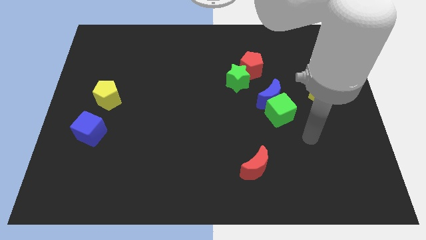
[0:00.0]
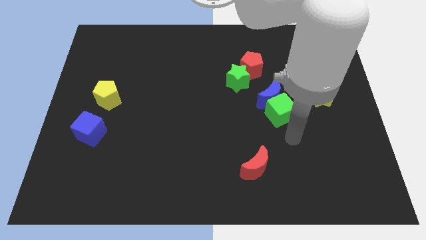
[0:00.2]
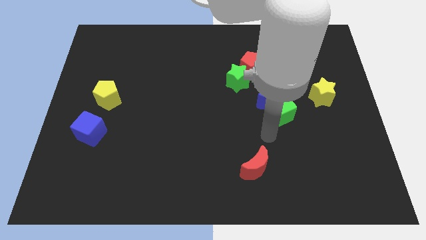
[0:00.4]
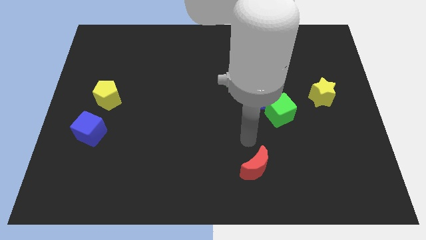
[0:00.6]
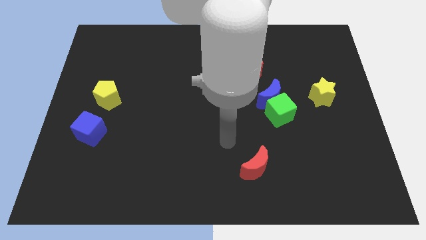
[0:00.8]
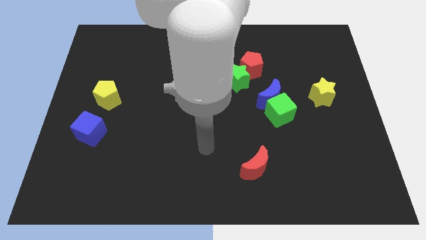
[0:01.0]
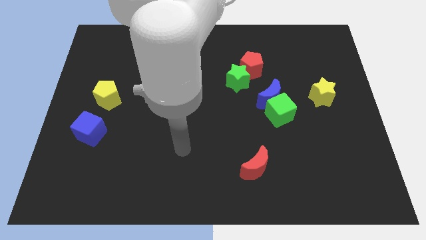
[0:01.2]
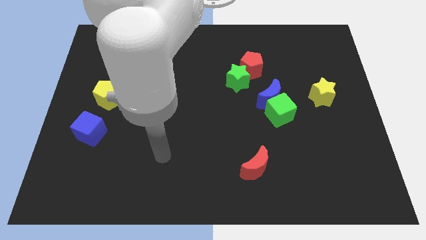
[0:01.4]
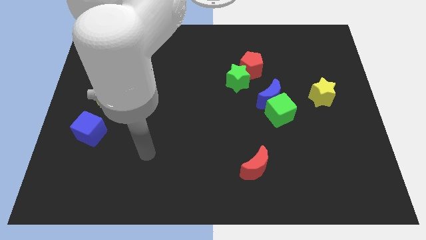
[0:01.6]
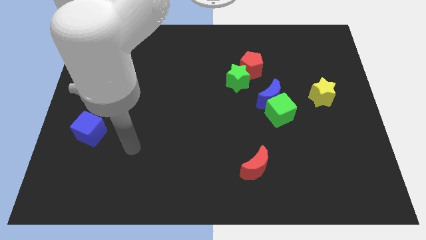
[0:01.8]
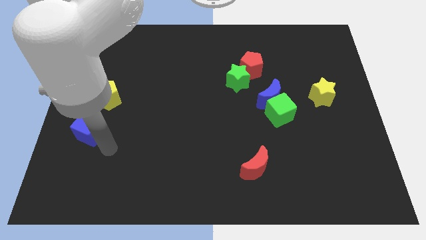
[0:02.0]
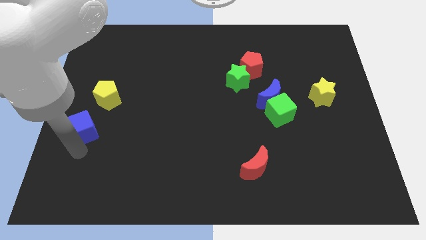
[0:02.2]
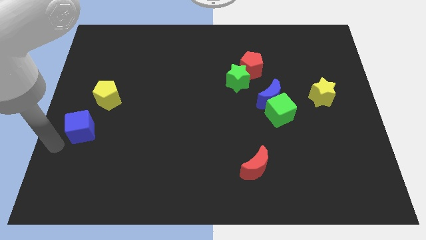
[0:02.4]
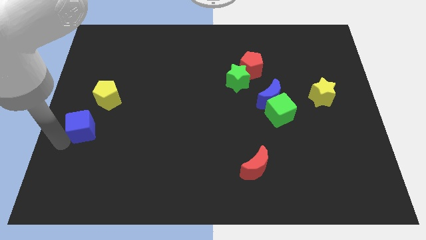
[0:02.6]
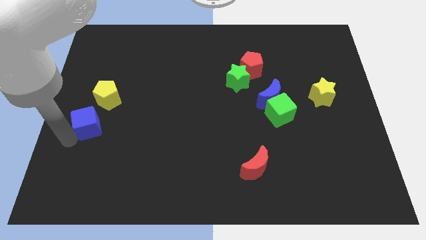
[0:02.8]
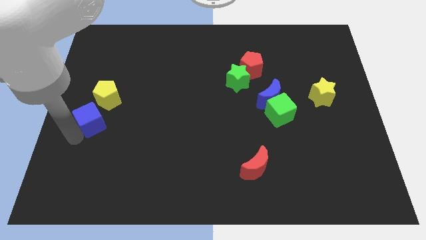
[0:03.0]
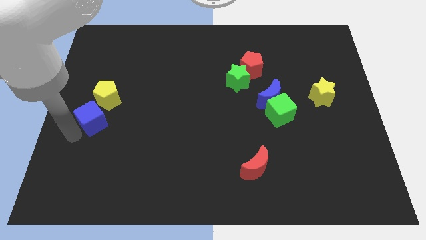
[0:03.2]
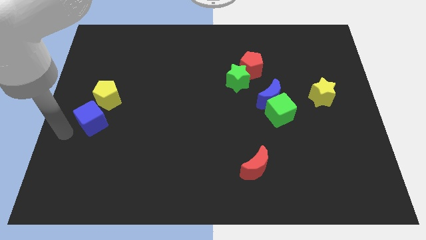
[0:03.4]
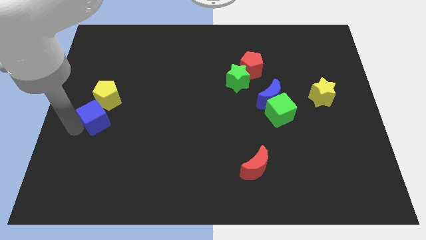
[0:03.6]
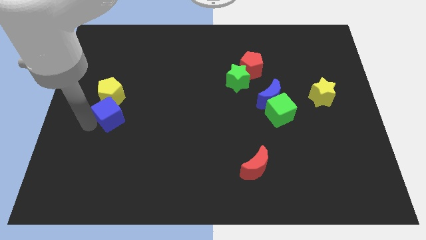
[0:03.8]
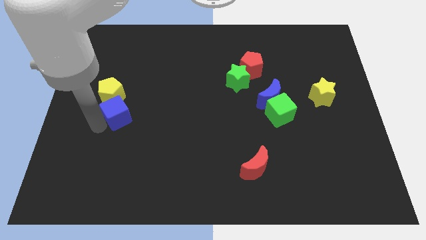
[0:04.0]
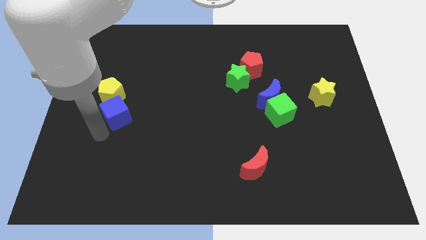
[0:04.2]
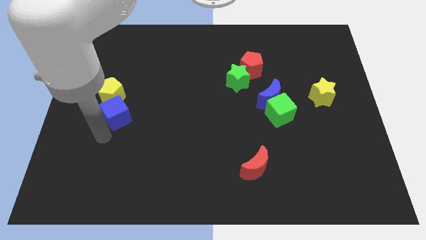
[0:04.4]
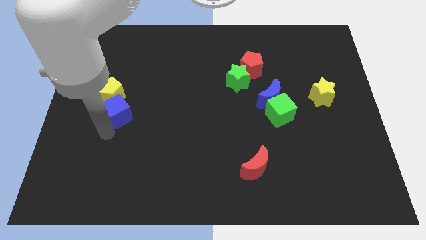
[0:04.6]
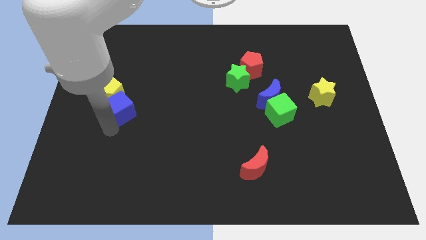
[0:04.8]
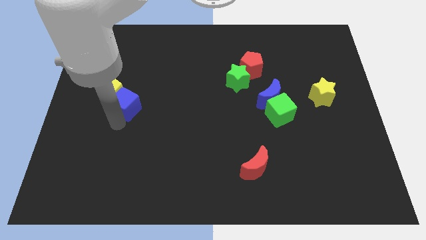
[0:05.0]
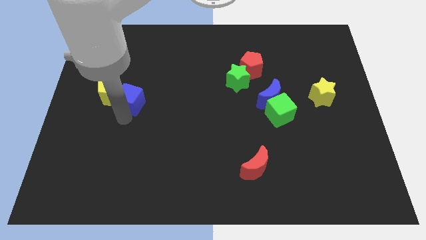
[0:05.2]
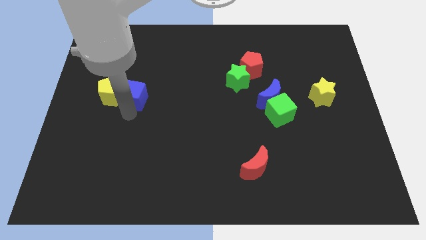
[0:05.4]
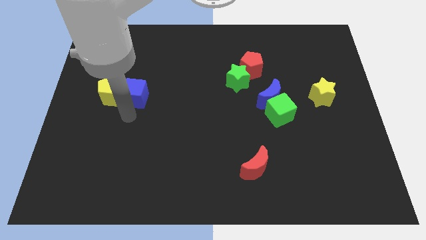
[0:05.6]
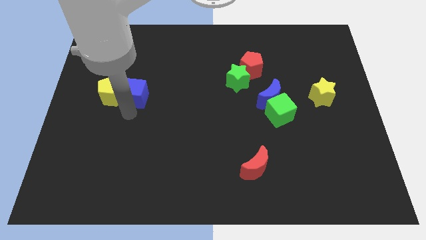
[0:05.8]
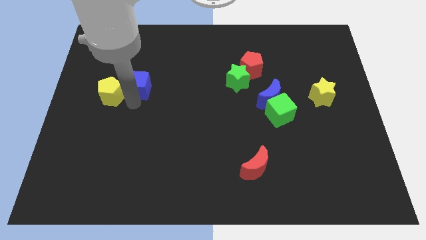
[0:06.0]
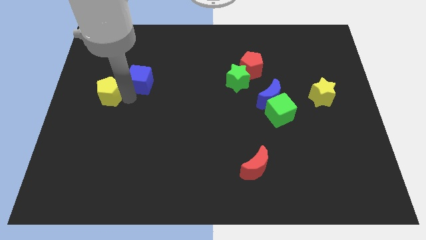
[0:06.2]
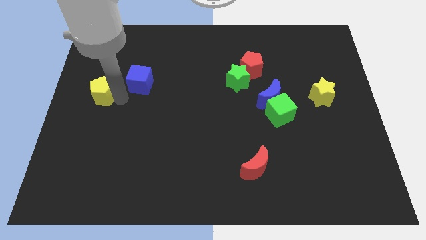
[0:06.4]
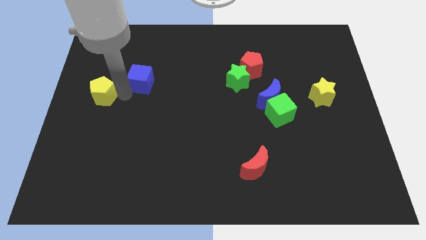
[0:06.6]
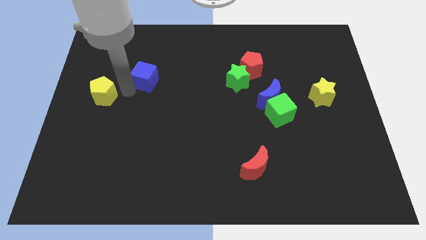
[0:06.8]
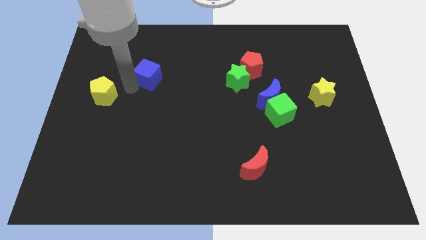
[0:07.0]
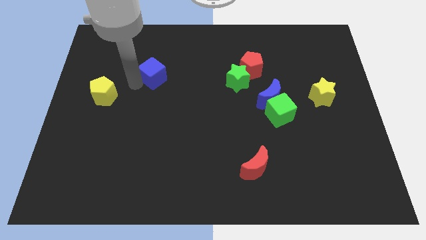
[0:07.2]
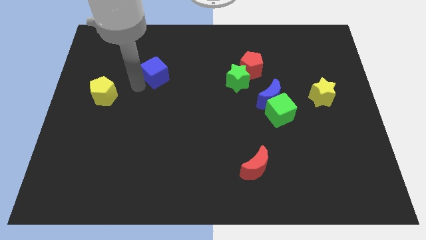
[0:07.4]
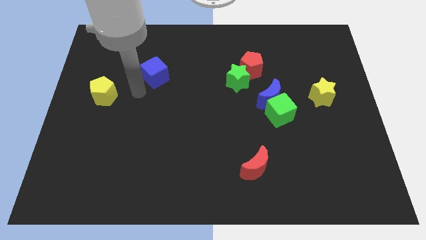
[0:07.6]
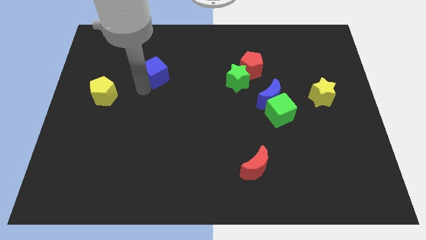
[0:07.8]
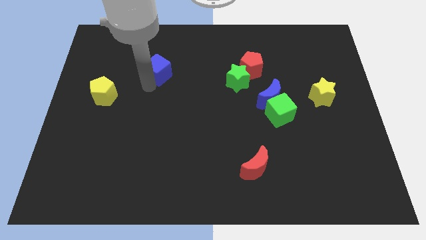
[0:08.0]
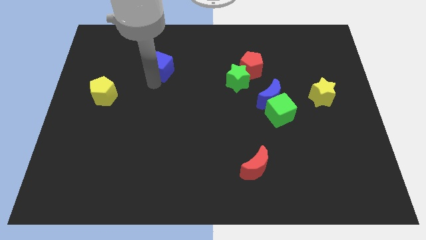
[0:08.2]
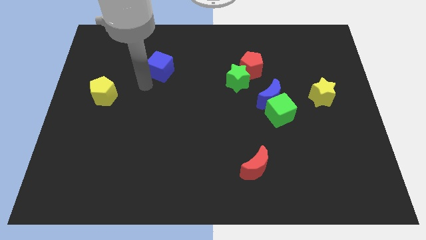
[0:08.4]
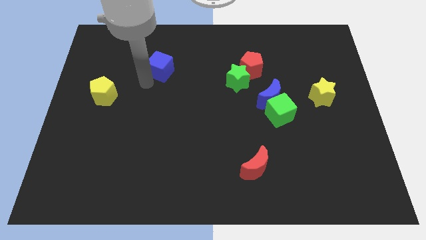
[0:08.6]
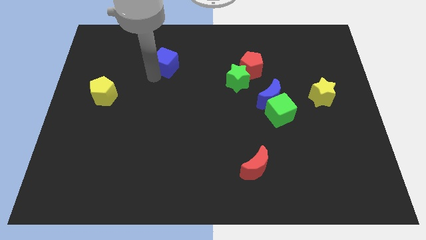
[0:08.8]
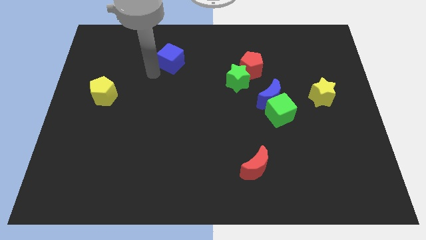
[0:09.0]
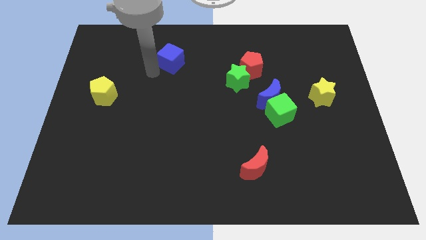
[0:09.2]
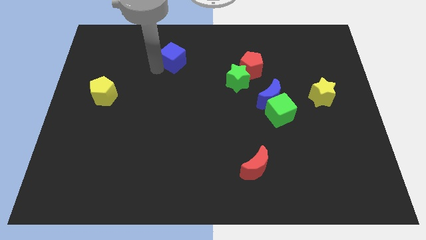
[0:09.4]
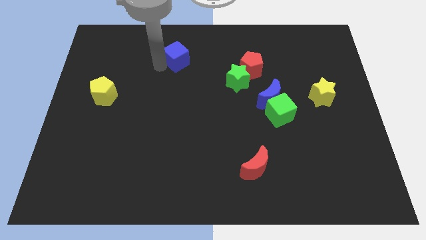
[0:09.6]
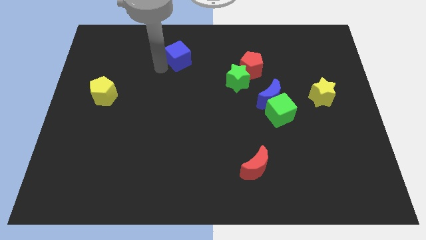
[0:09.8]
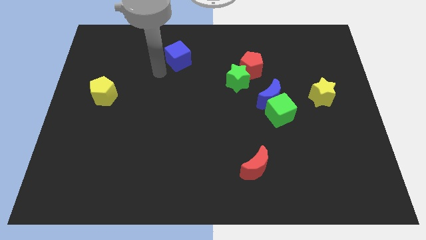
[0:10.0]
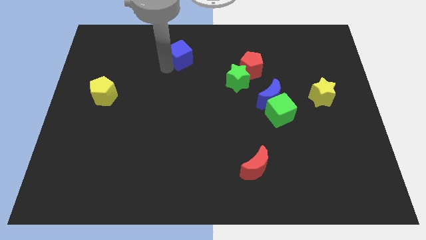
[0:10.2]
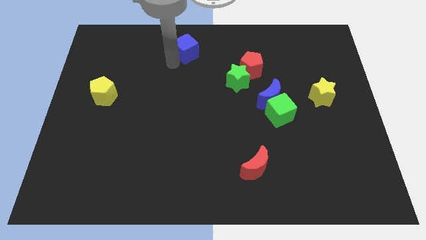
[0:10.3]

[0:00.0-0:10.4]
push the blue cube to the top side

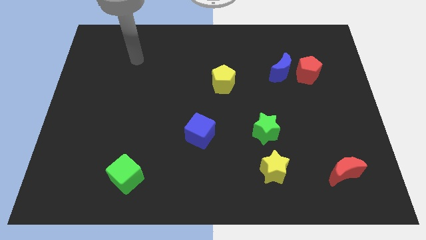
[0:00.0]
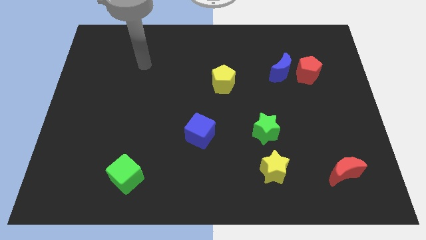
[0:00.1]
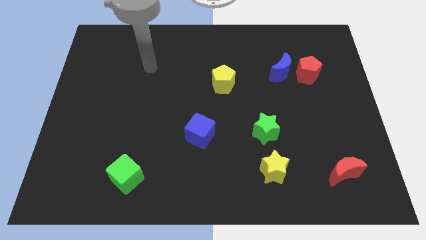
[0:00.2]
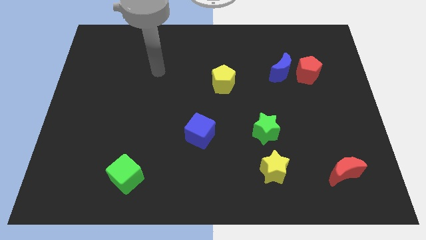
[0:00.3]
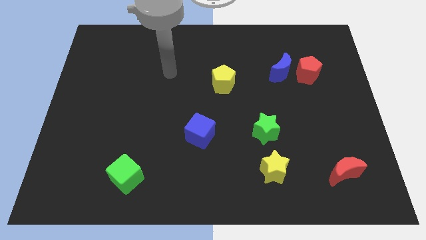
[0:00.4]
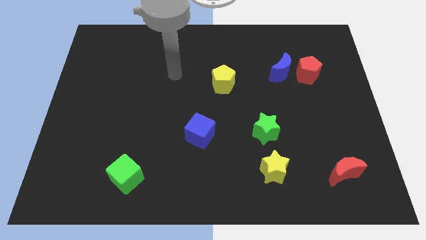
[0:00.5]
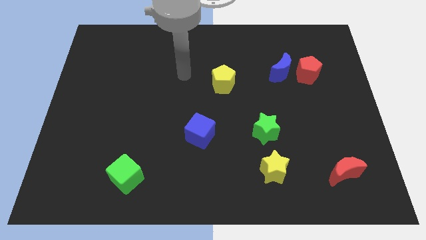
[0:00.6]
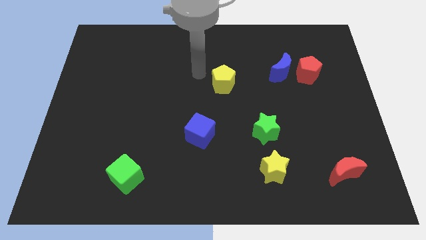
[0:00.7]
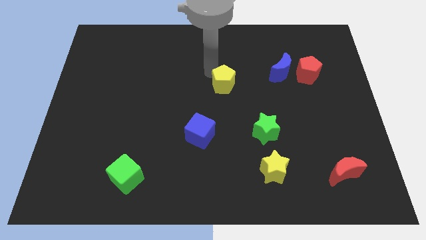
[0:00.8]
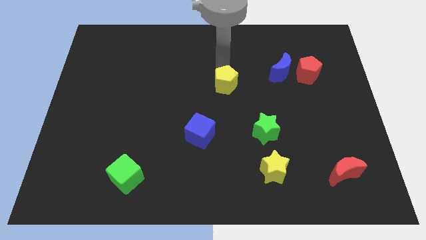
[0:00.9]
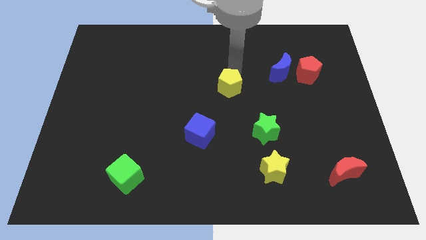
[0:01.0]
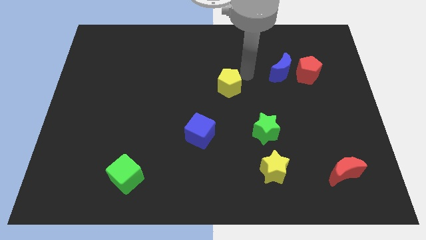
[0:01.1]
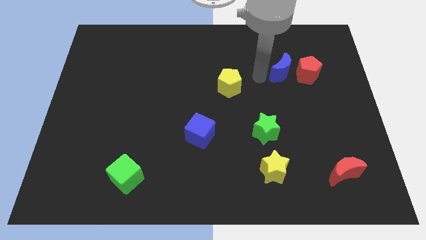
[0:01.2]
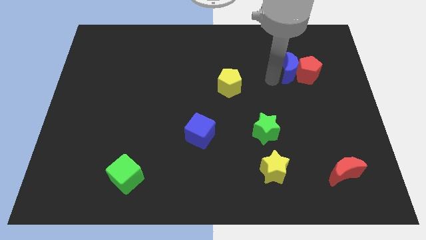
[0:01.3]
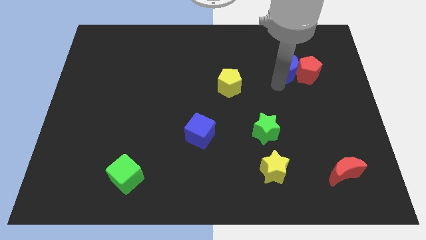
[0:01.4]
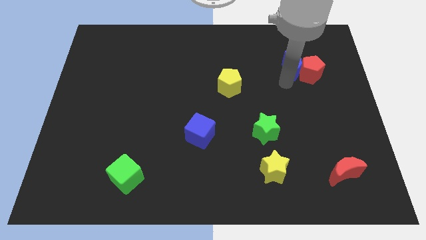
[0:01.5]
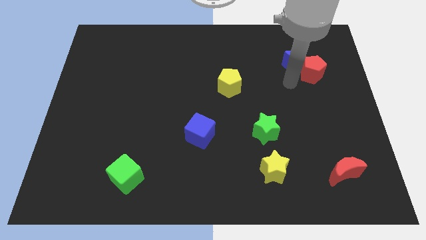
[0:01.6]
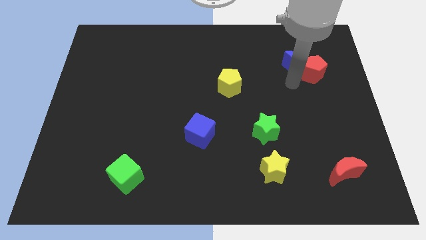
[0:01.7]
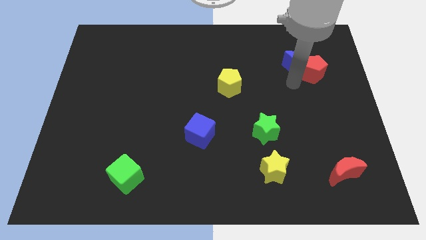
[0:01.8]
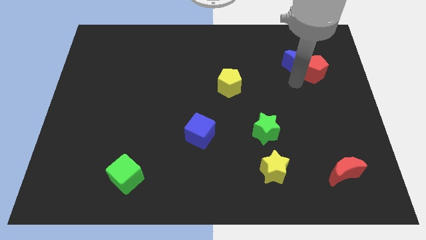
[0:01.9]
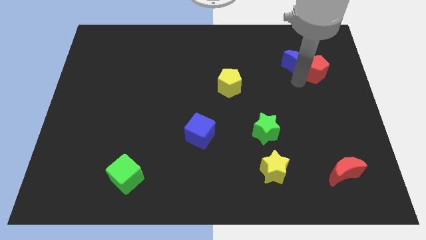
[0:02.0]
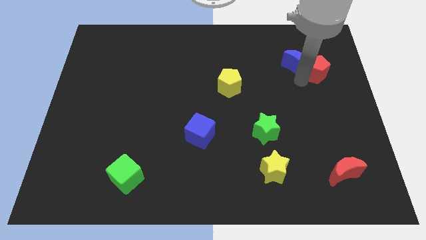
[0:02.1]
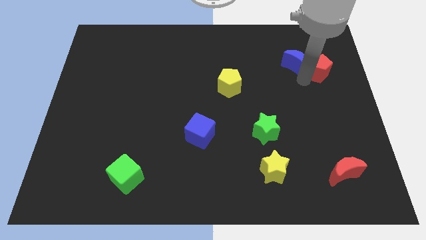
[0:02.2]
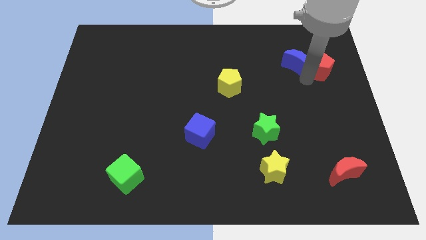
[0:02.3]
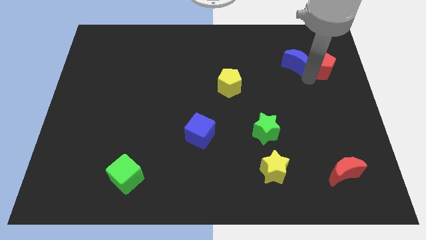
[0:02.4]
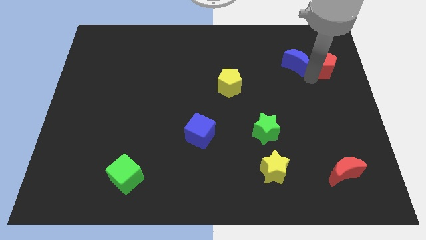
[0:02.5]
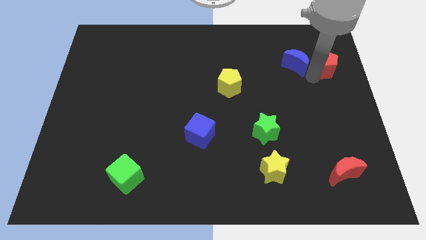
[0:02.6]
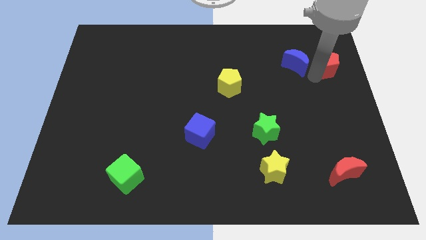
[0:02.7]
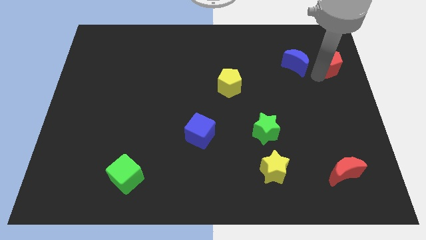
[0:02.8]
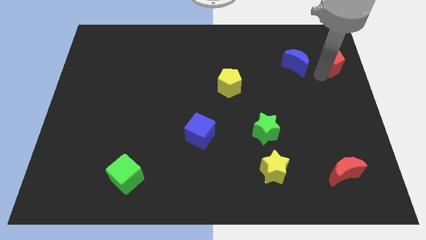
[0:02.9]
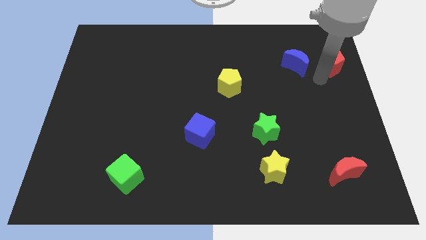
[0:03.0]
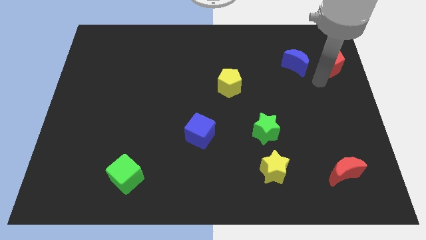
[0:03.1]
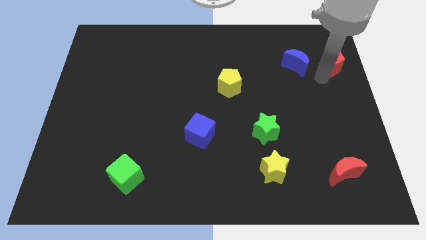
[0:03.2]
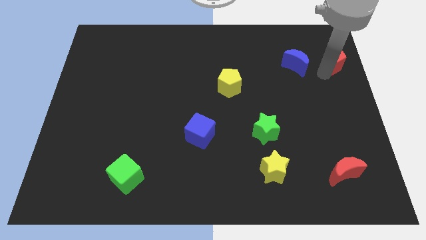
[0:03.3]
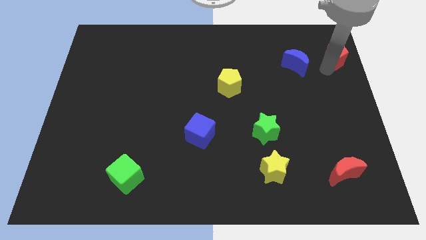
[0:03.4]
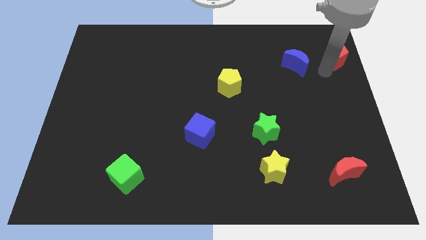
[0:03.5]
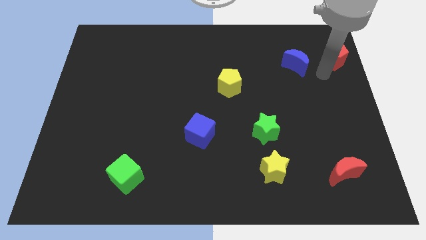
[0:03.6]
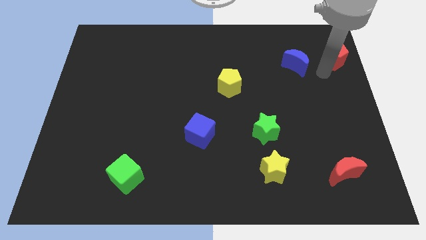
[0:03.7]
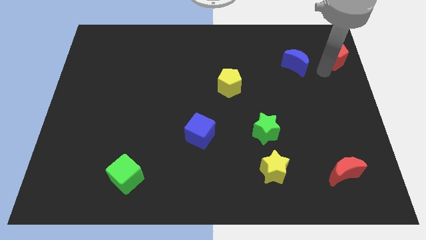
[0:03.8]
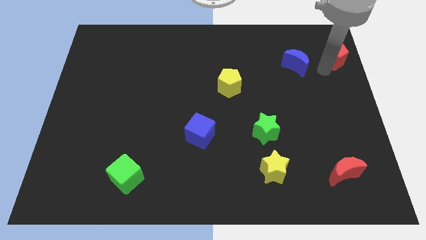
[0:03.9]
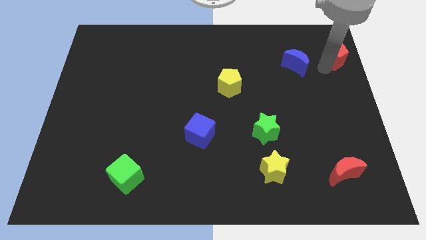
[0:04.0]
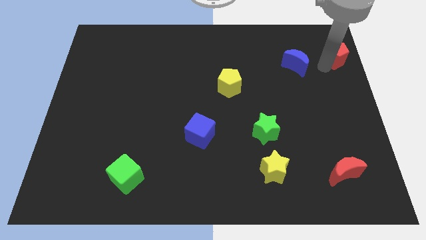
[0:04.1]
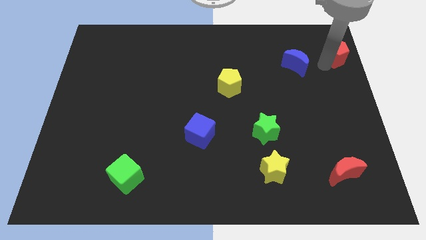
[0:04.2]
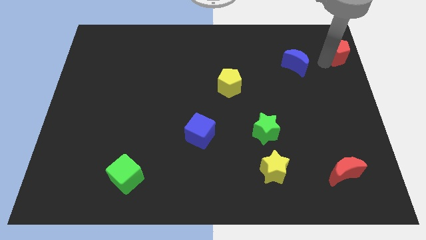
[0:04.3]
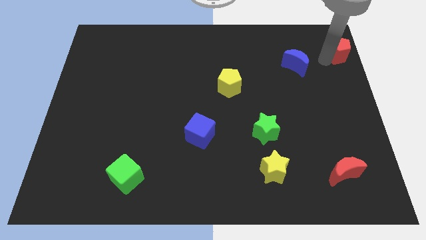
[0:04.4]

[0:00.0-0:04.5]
move the red pentagon to the top right of the board
